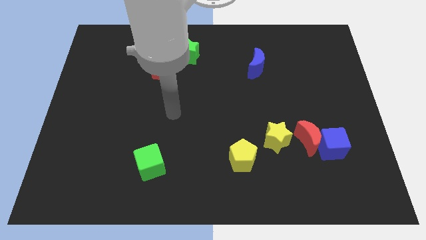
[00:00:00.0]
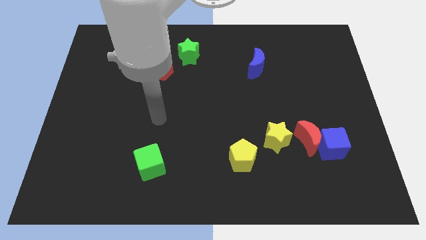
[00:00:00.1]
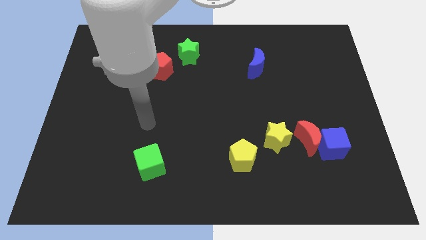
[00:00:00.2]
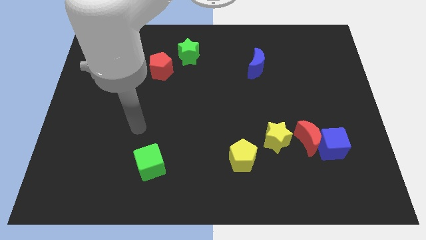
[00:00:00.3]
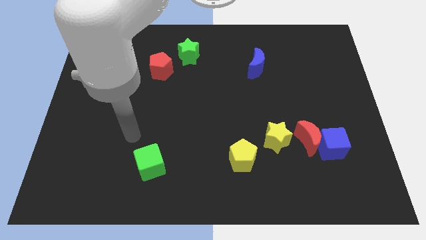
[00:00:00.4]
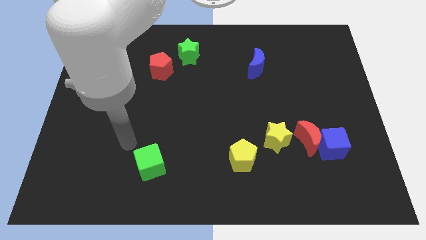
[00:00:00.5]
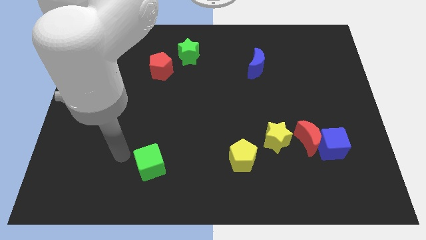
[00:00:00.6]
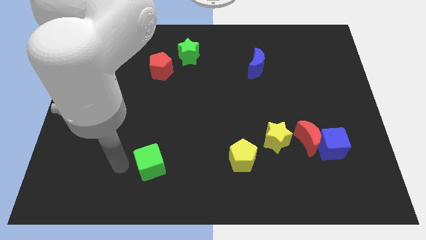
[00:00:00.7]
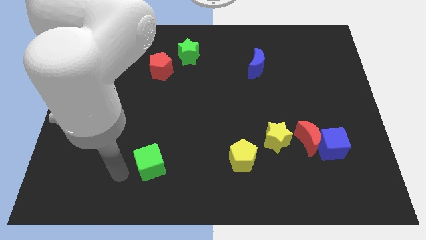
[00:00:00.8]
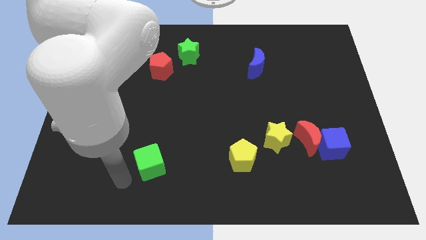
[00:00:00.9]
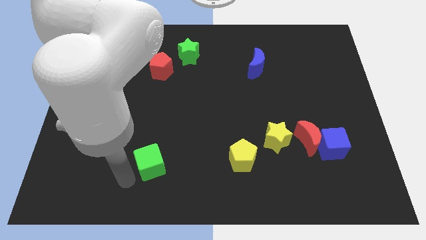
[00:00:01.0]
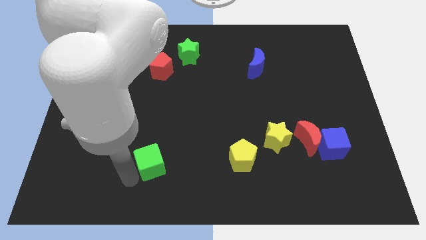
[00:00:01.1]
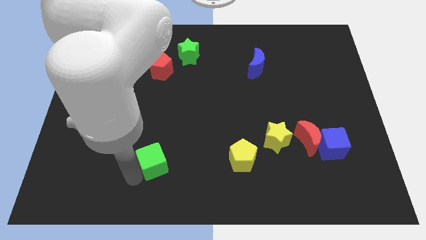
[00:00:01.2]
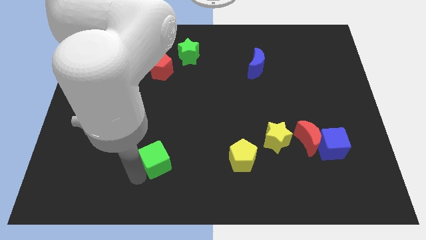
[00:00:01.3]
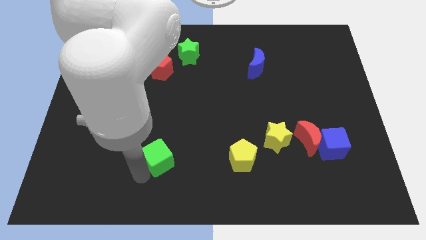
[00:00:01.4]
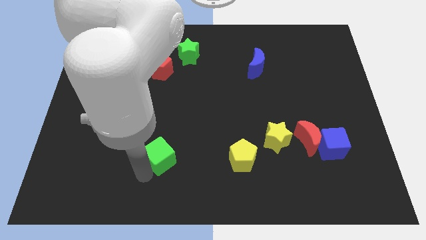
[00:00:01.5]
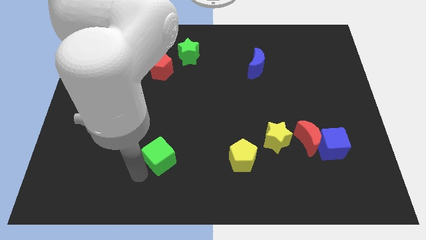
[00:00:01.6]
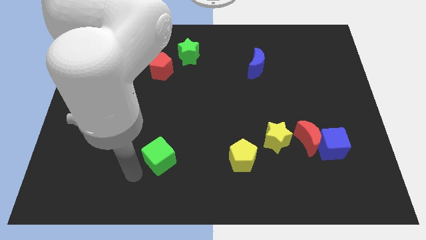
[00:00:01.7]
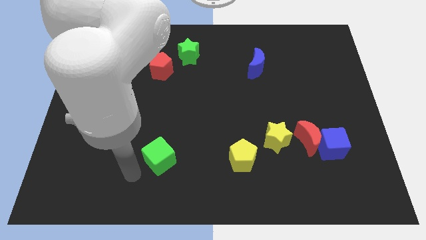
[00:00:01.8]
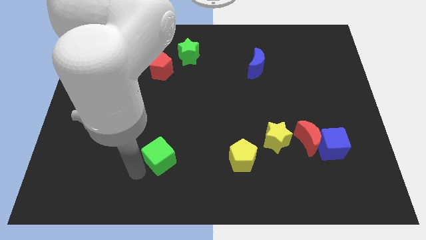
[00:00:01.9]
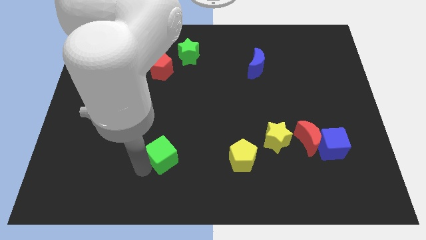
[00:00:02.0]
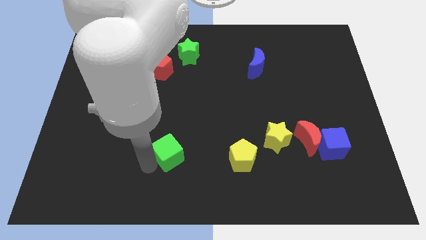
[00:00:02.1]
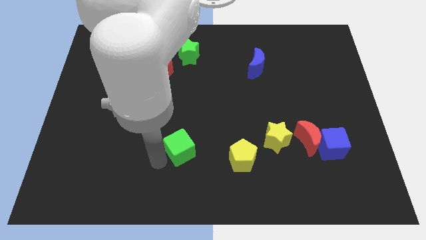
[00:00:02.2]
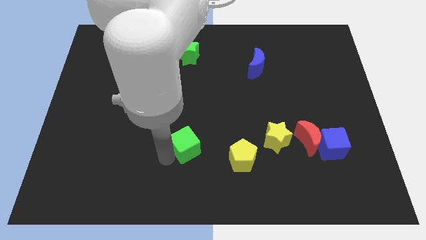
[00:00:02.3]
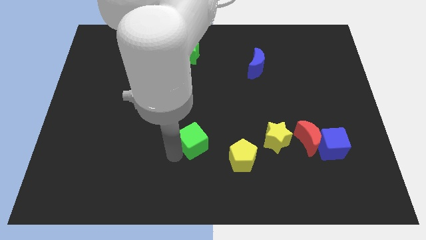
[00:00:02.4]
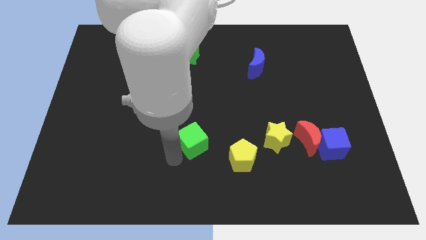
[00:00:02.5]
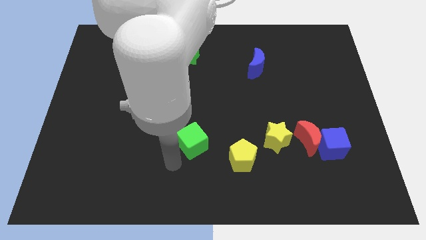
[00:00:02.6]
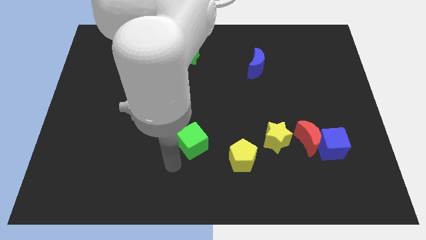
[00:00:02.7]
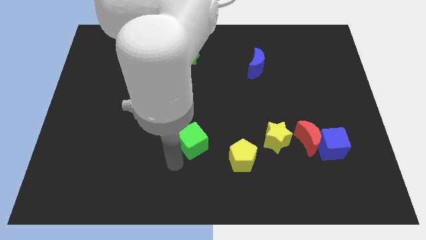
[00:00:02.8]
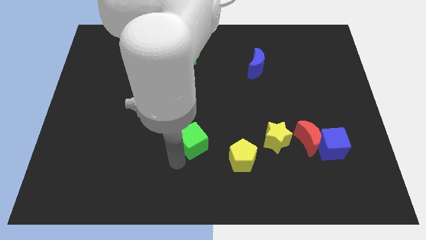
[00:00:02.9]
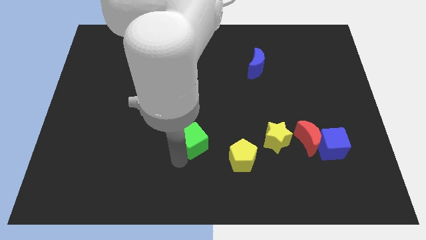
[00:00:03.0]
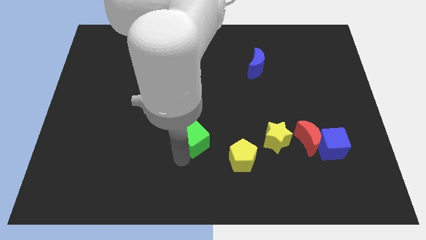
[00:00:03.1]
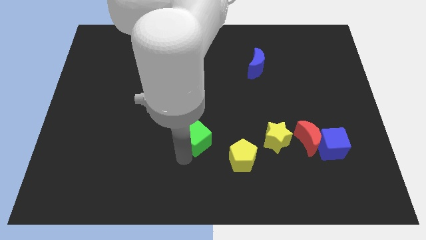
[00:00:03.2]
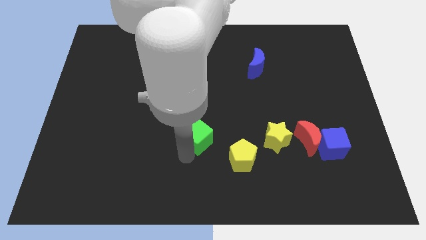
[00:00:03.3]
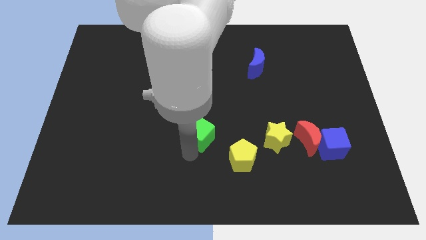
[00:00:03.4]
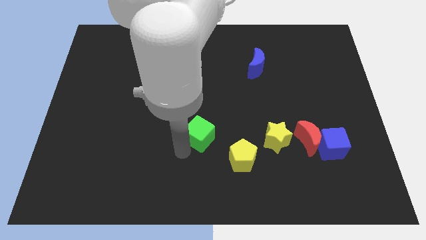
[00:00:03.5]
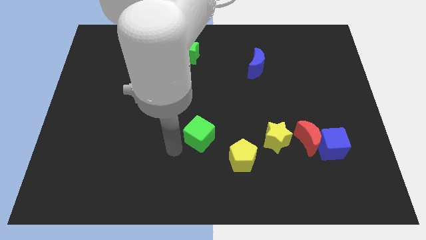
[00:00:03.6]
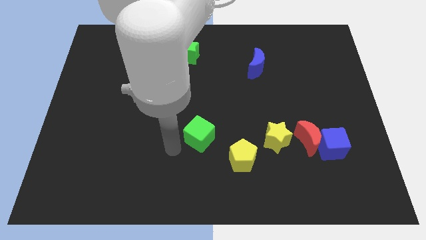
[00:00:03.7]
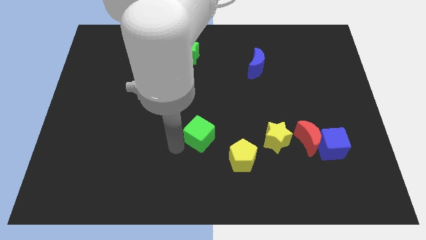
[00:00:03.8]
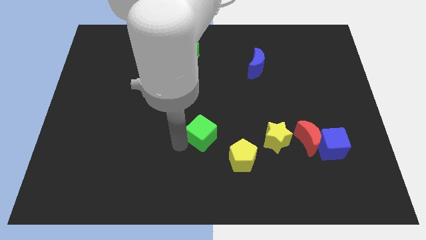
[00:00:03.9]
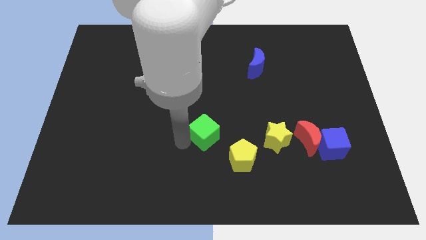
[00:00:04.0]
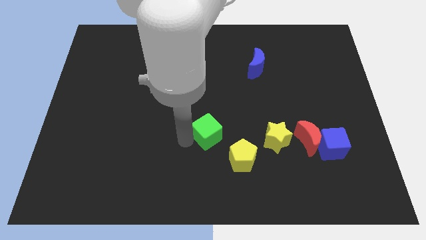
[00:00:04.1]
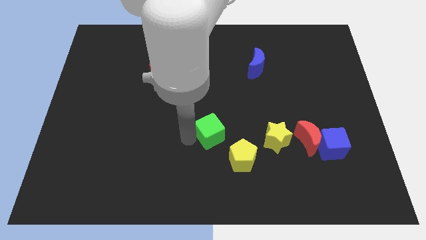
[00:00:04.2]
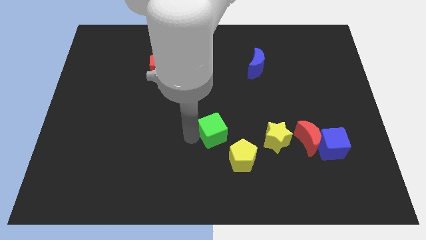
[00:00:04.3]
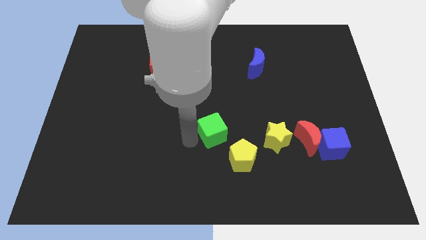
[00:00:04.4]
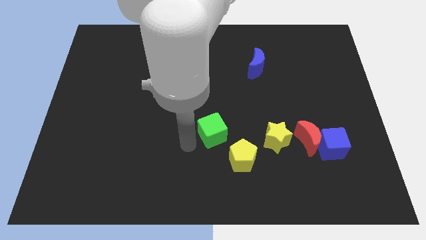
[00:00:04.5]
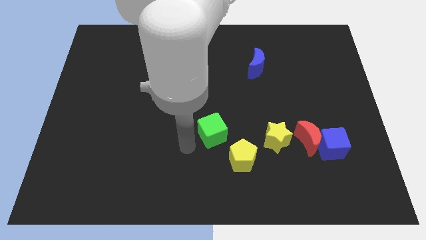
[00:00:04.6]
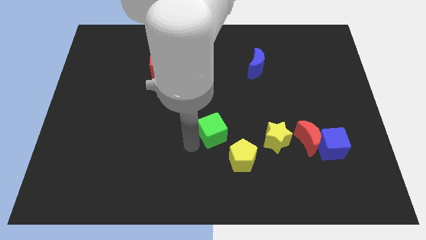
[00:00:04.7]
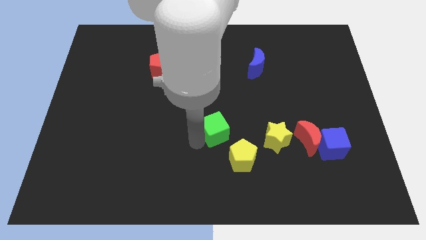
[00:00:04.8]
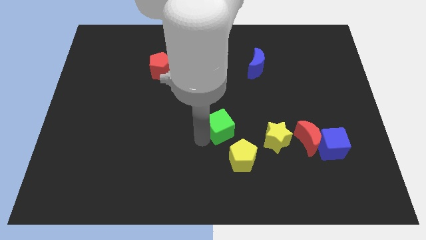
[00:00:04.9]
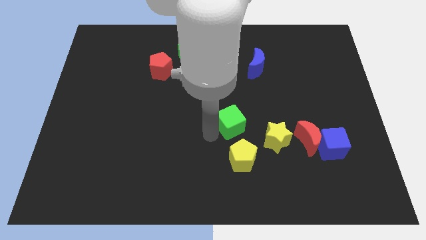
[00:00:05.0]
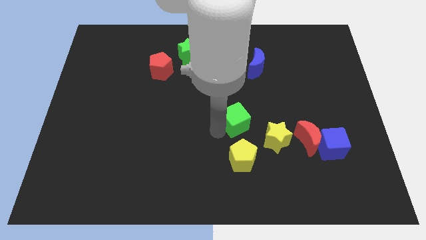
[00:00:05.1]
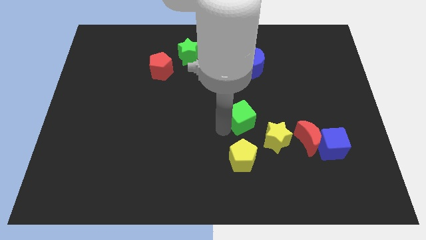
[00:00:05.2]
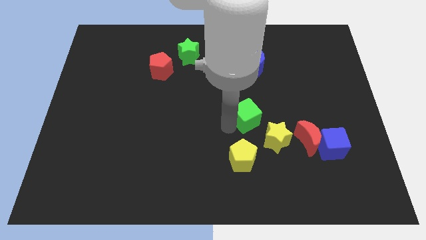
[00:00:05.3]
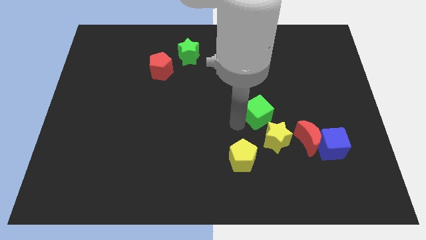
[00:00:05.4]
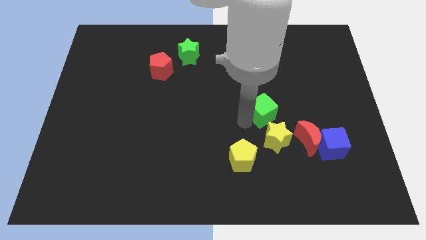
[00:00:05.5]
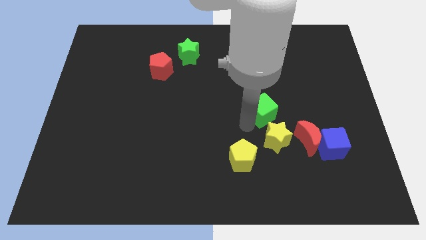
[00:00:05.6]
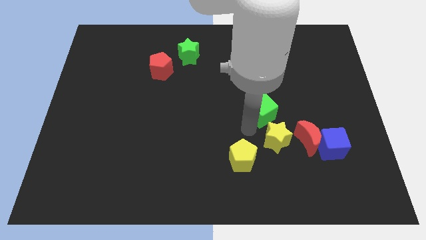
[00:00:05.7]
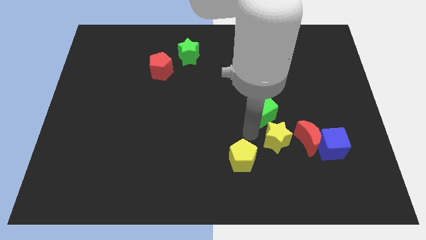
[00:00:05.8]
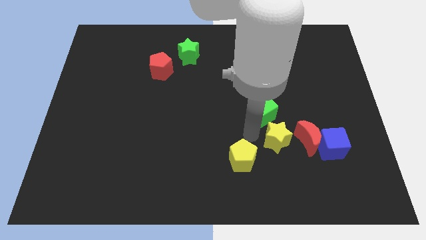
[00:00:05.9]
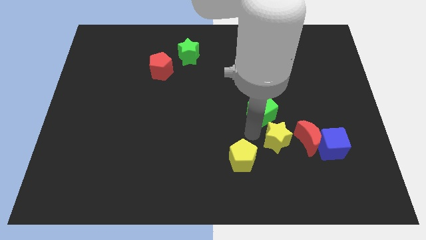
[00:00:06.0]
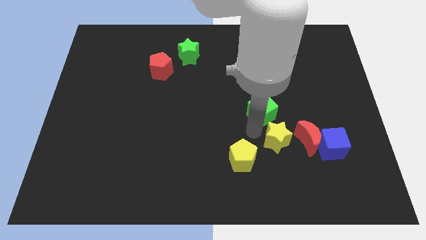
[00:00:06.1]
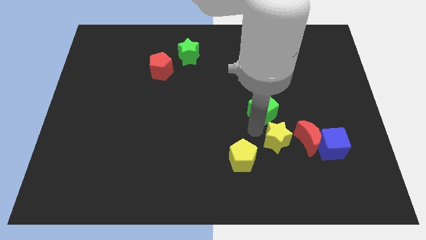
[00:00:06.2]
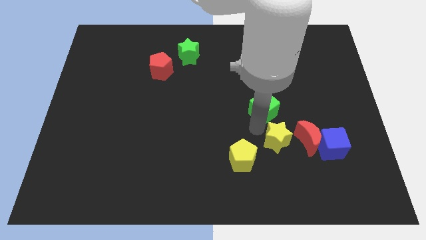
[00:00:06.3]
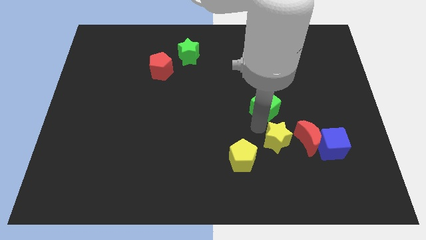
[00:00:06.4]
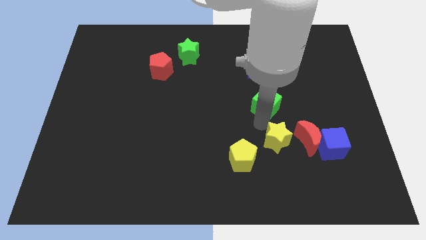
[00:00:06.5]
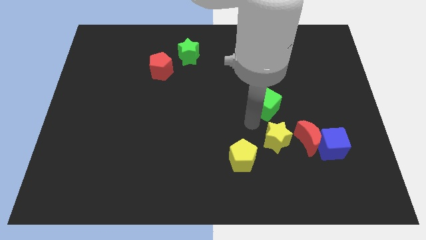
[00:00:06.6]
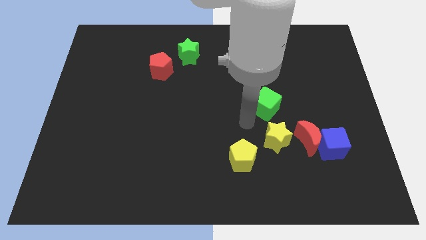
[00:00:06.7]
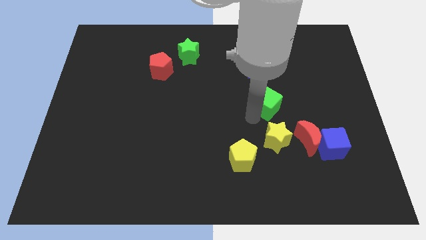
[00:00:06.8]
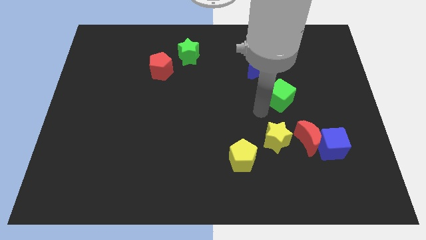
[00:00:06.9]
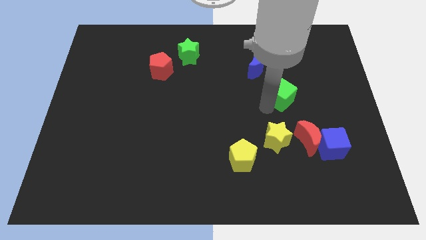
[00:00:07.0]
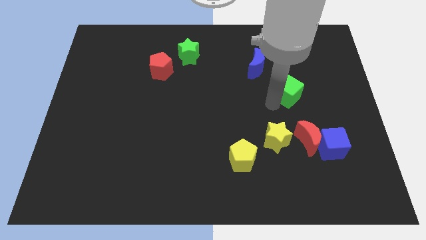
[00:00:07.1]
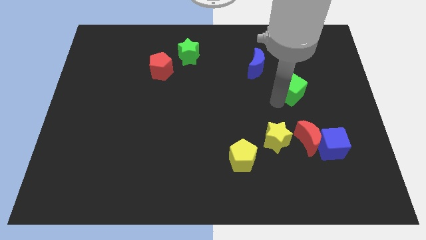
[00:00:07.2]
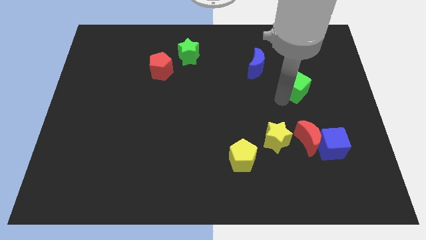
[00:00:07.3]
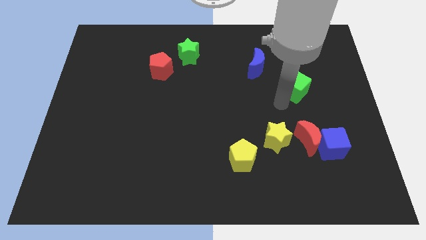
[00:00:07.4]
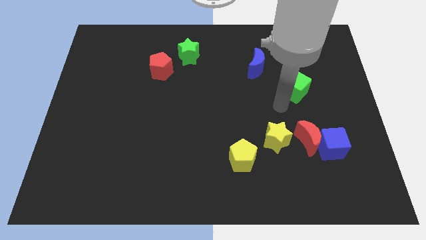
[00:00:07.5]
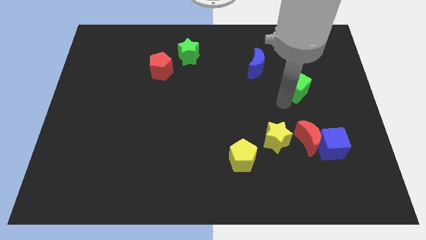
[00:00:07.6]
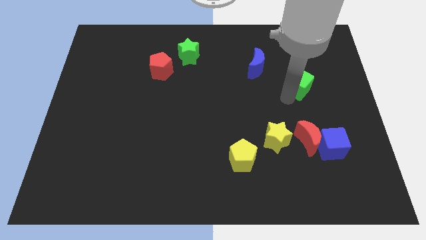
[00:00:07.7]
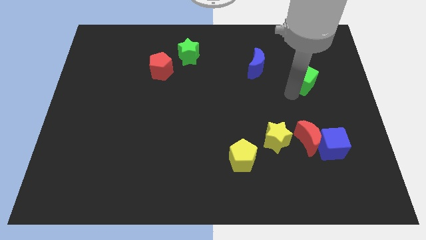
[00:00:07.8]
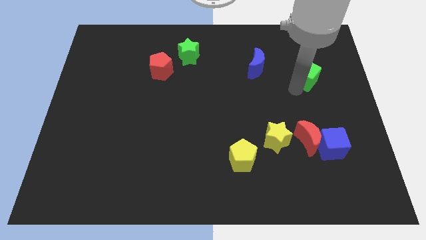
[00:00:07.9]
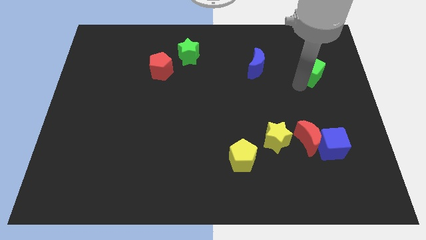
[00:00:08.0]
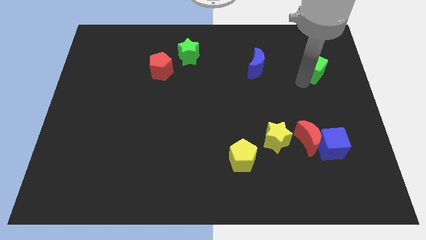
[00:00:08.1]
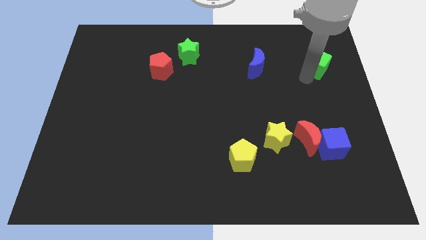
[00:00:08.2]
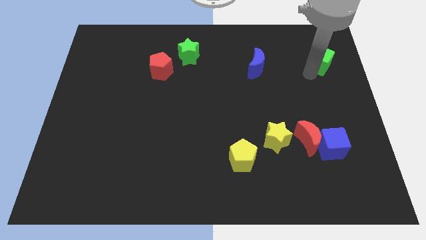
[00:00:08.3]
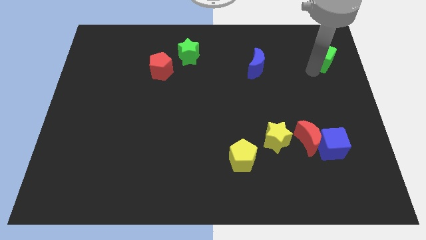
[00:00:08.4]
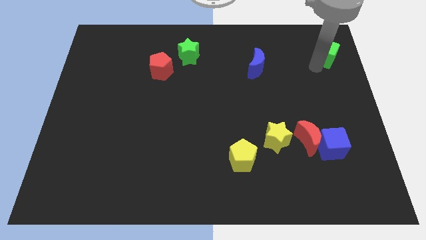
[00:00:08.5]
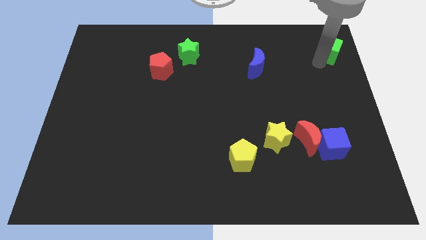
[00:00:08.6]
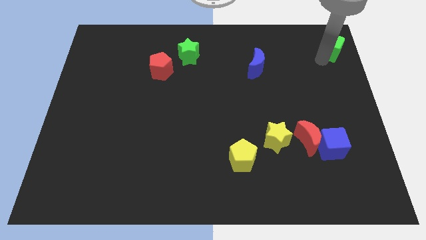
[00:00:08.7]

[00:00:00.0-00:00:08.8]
push the green cube to the top right
